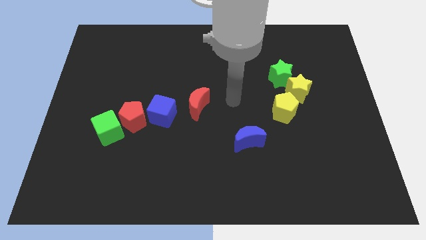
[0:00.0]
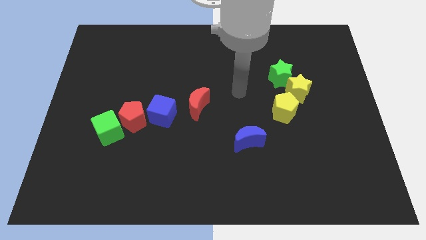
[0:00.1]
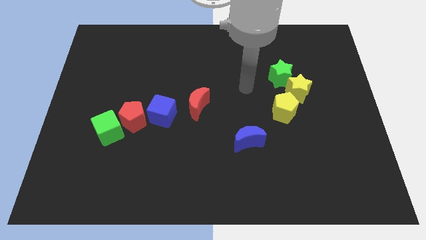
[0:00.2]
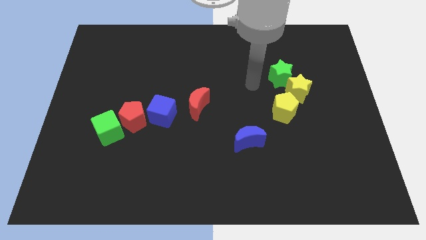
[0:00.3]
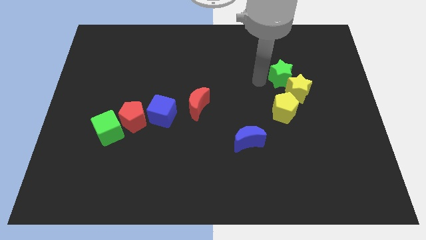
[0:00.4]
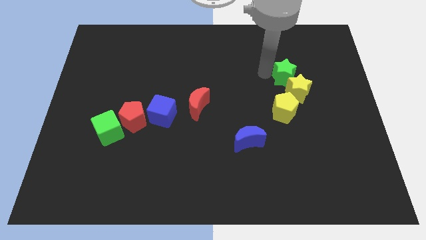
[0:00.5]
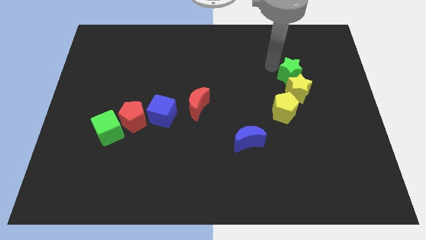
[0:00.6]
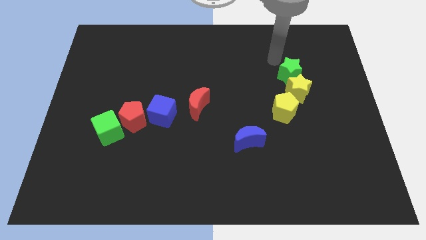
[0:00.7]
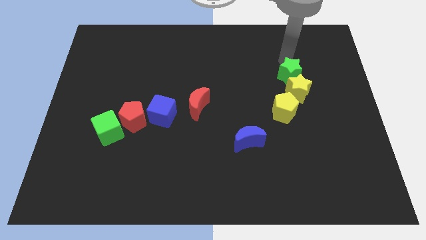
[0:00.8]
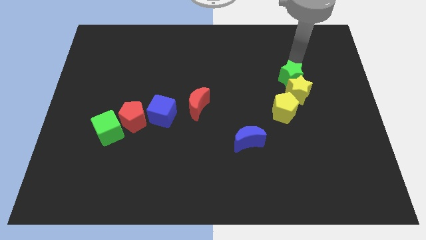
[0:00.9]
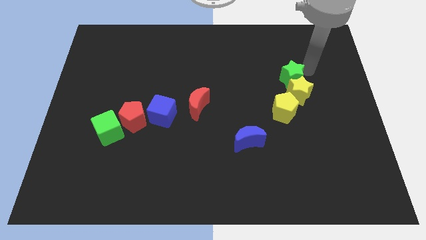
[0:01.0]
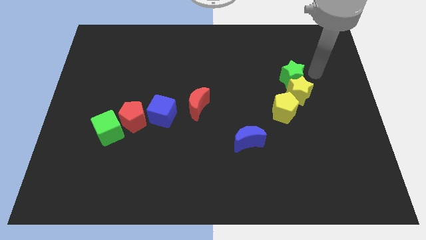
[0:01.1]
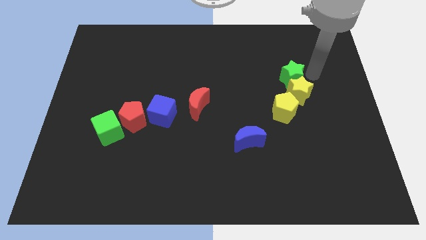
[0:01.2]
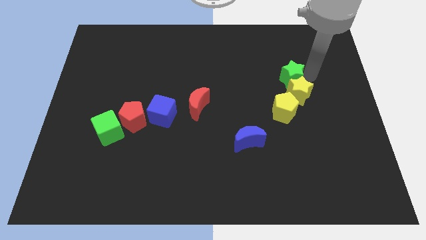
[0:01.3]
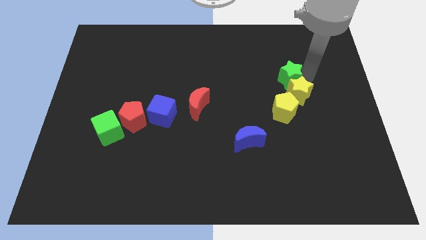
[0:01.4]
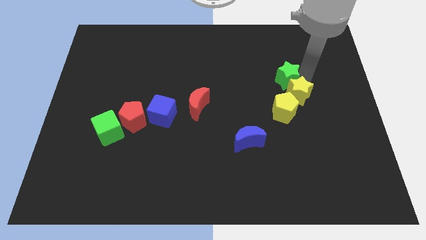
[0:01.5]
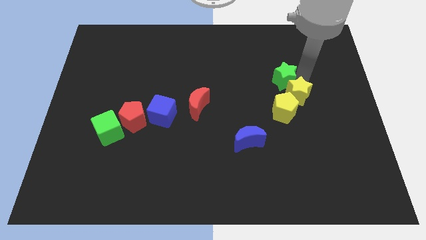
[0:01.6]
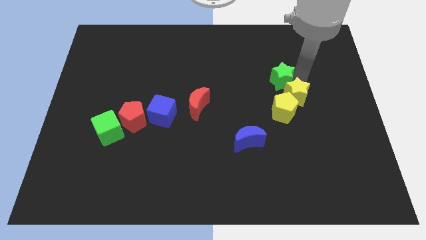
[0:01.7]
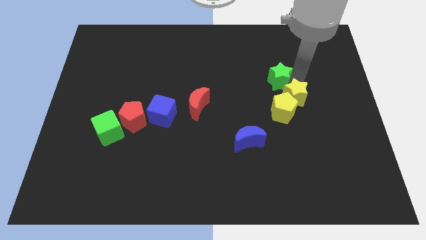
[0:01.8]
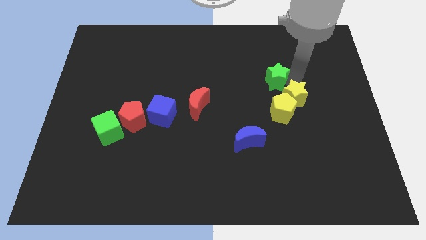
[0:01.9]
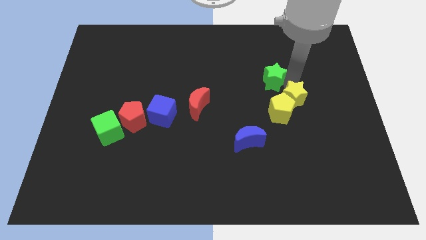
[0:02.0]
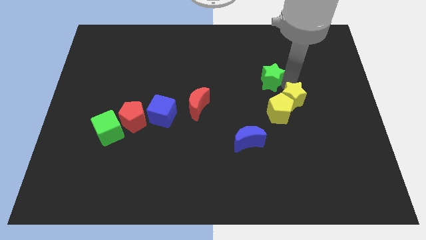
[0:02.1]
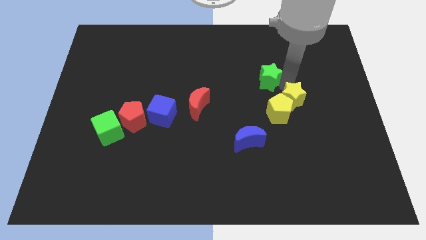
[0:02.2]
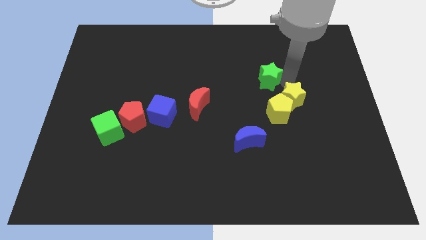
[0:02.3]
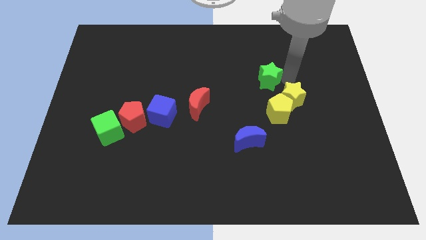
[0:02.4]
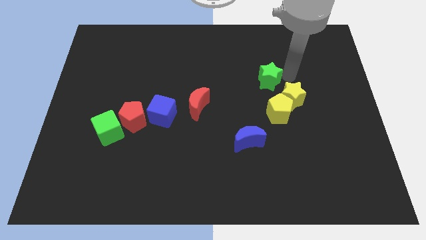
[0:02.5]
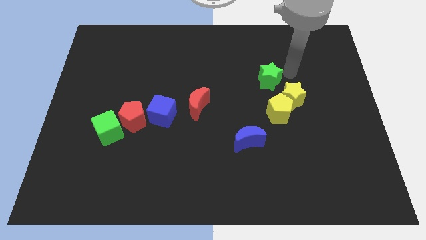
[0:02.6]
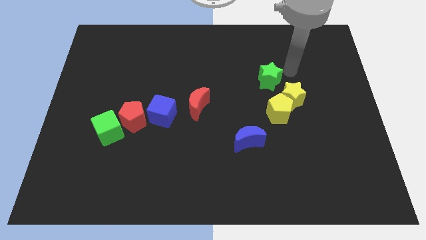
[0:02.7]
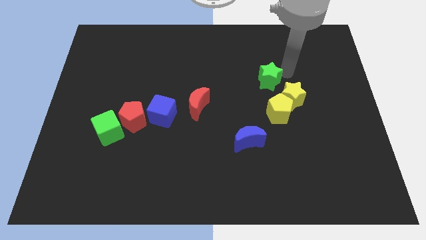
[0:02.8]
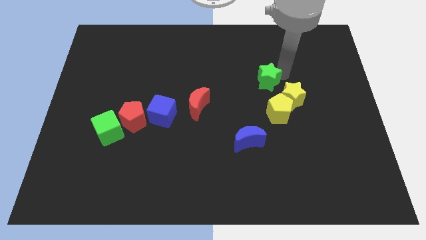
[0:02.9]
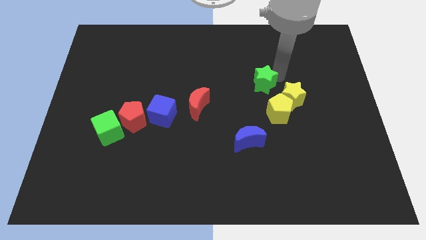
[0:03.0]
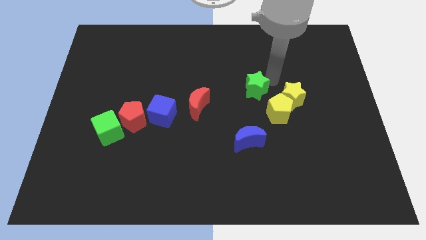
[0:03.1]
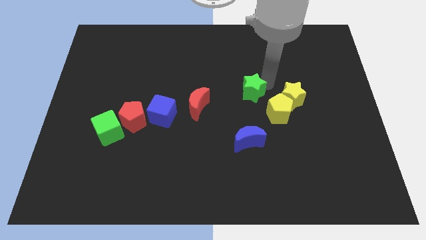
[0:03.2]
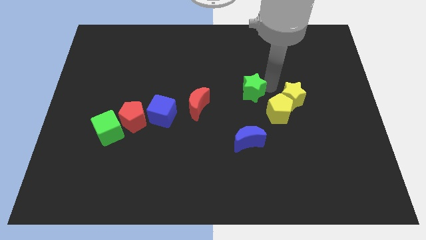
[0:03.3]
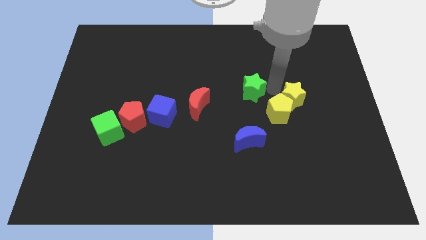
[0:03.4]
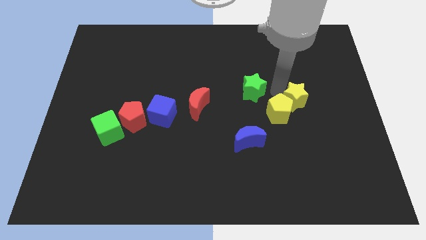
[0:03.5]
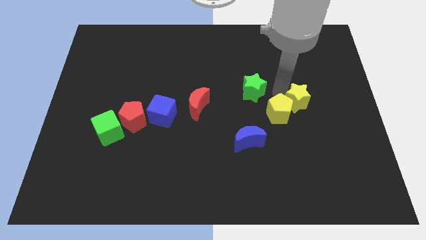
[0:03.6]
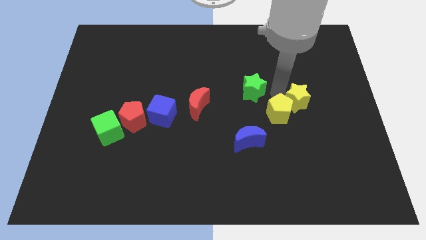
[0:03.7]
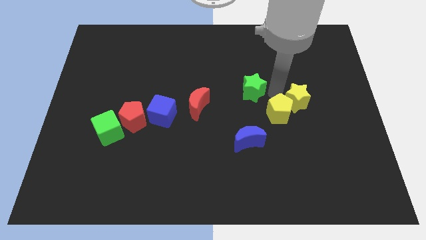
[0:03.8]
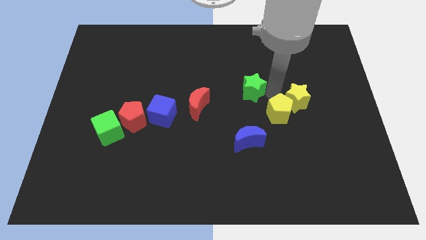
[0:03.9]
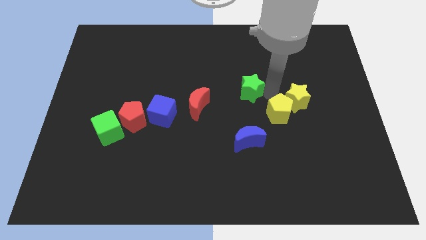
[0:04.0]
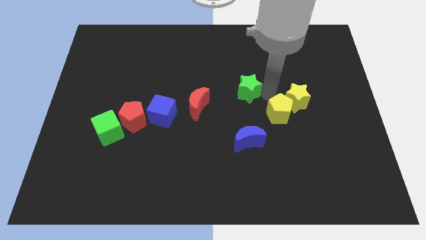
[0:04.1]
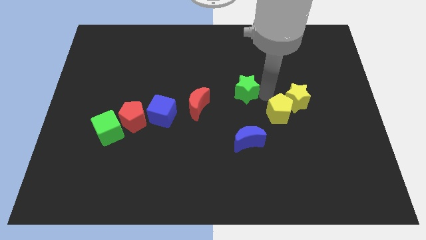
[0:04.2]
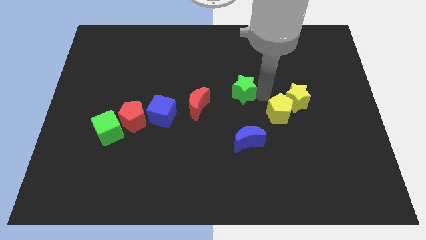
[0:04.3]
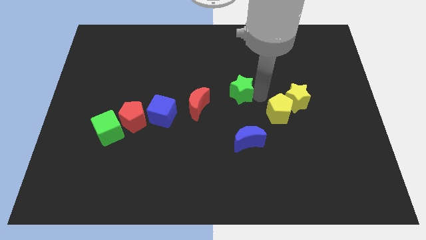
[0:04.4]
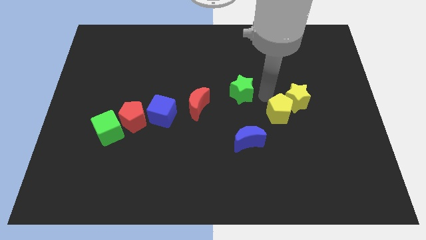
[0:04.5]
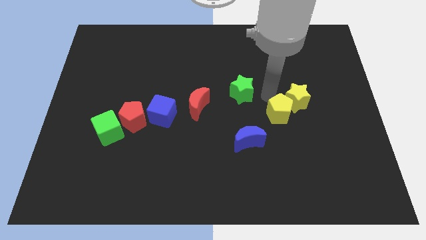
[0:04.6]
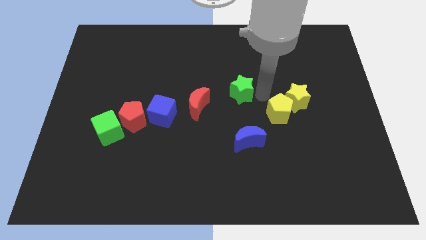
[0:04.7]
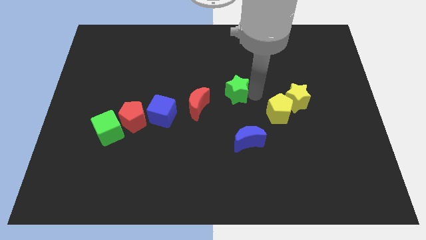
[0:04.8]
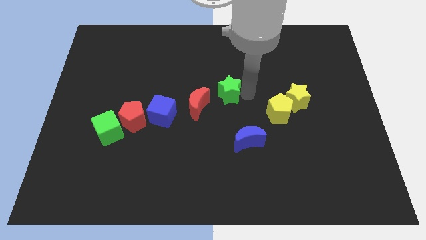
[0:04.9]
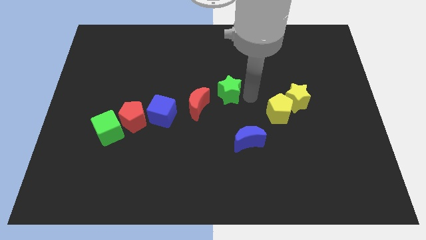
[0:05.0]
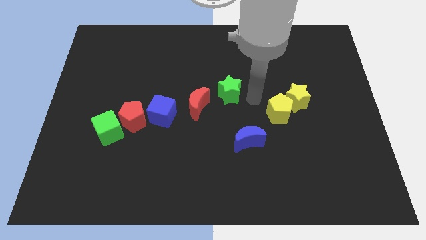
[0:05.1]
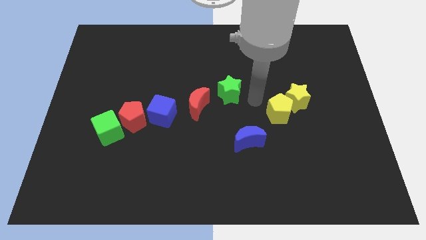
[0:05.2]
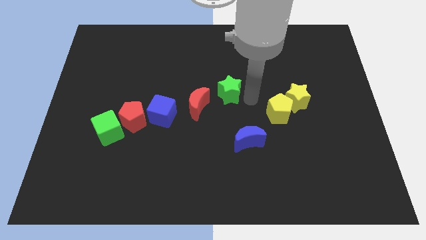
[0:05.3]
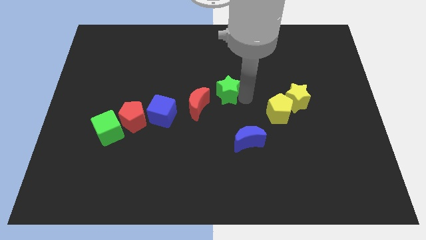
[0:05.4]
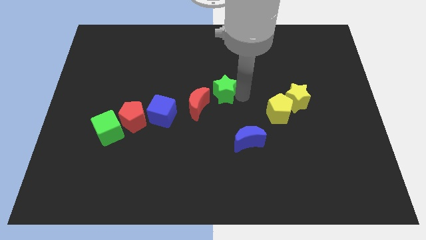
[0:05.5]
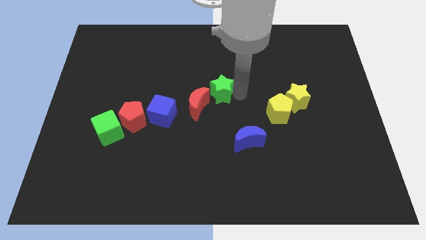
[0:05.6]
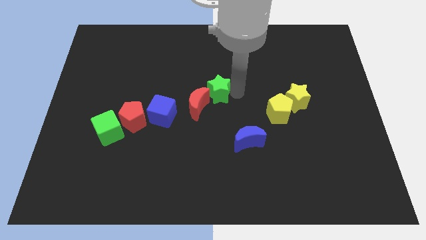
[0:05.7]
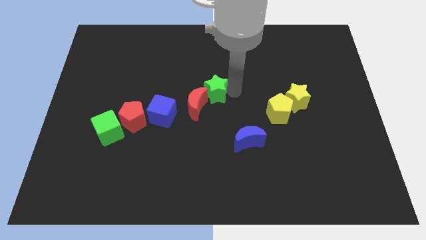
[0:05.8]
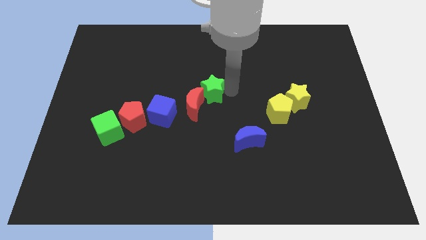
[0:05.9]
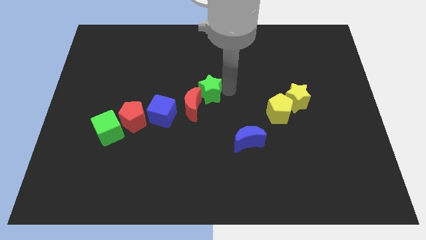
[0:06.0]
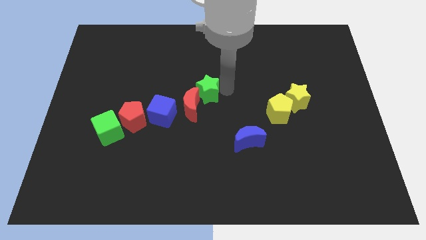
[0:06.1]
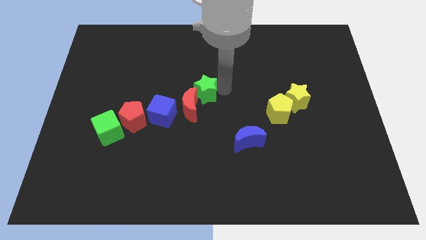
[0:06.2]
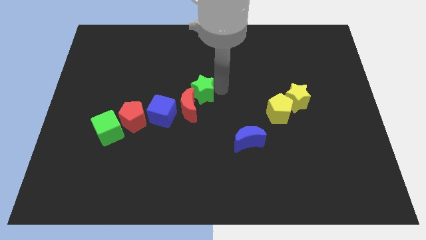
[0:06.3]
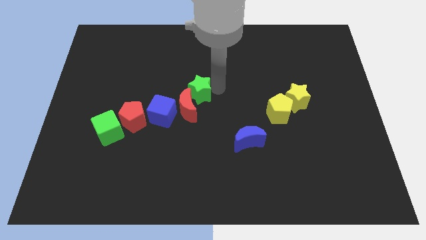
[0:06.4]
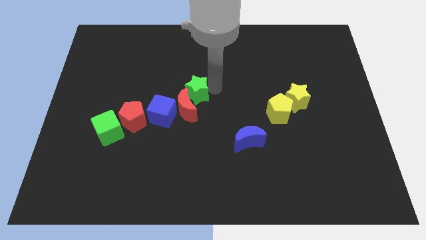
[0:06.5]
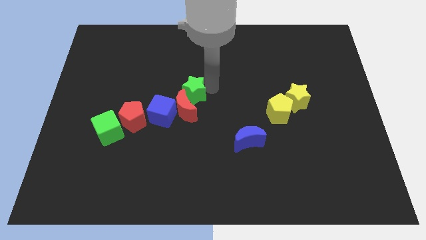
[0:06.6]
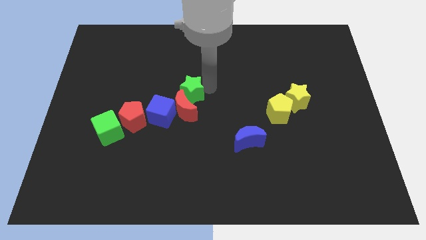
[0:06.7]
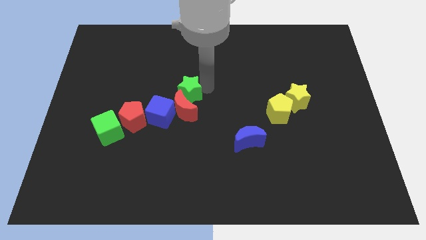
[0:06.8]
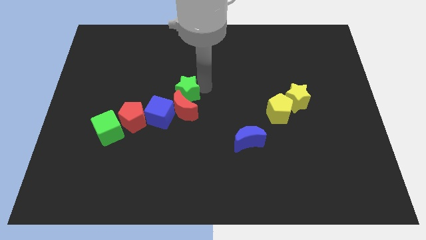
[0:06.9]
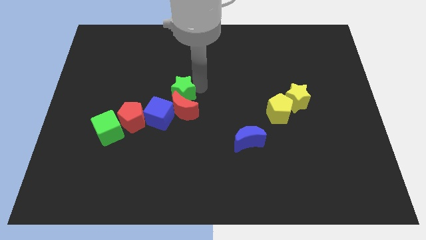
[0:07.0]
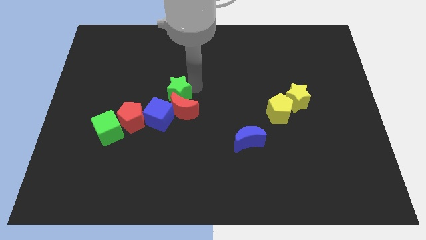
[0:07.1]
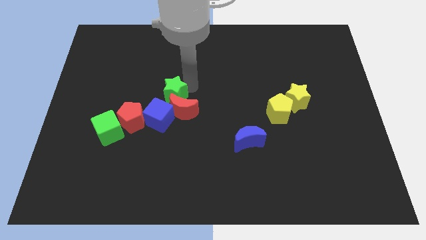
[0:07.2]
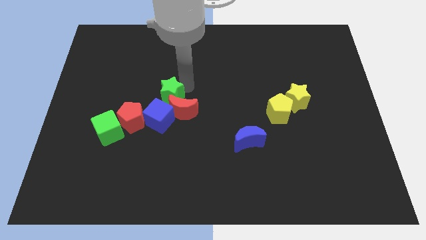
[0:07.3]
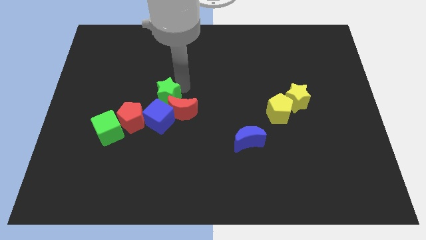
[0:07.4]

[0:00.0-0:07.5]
move the green star to the left side of the red moon

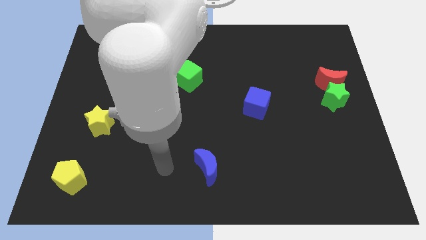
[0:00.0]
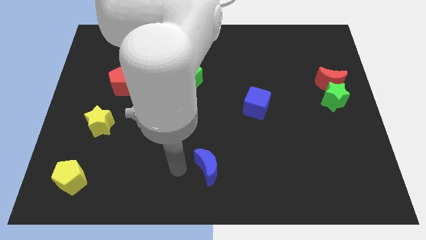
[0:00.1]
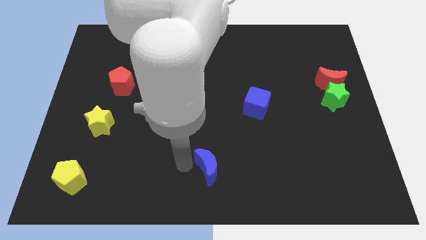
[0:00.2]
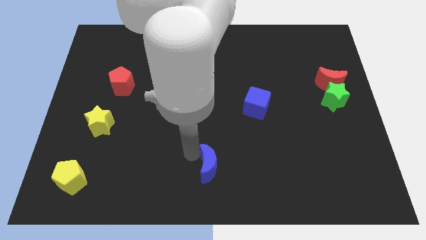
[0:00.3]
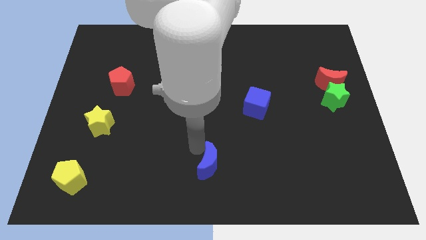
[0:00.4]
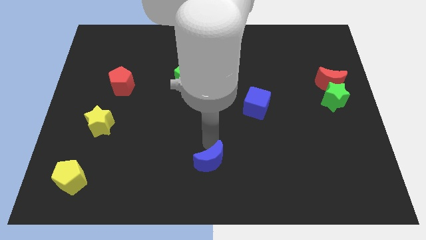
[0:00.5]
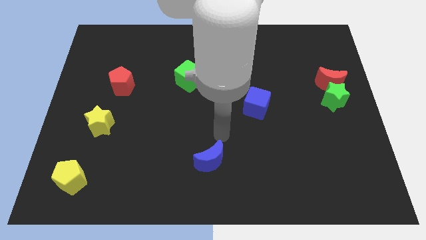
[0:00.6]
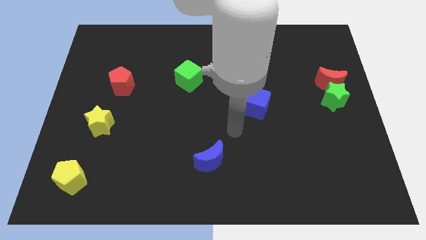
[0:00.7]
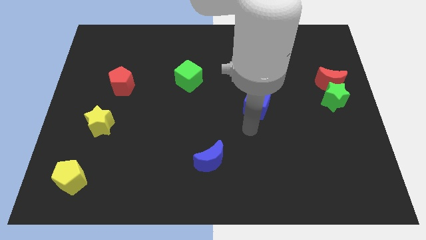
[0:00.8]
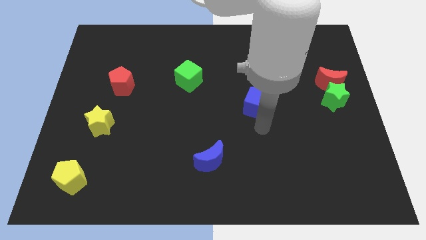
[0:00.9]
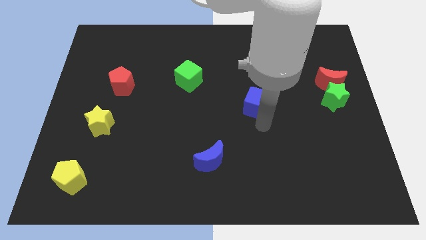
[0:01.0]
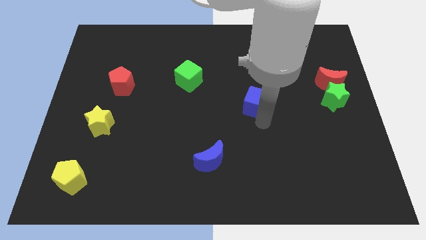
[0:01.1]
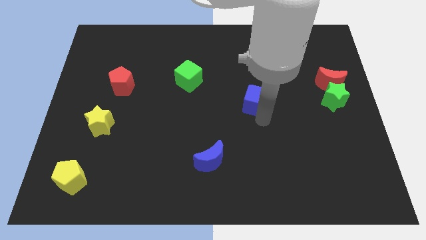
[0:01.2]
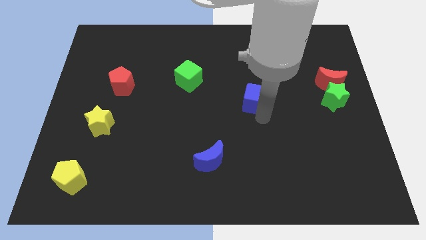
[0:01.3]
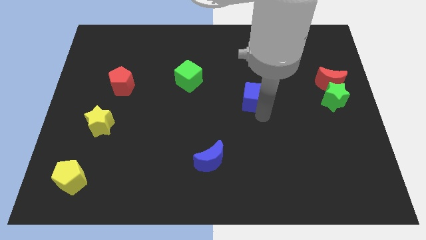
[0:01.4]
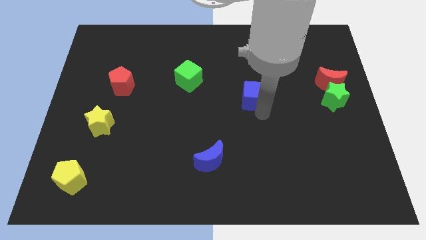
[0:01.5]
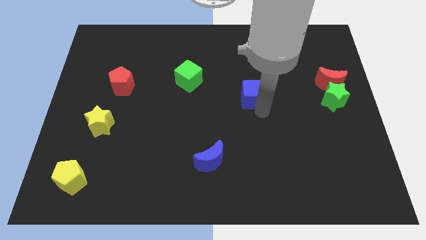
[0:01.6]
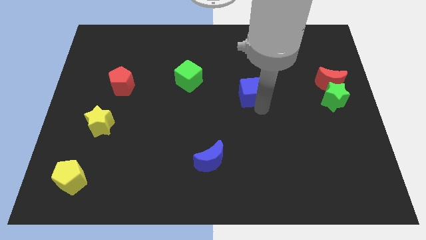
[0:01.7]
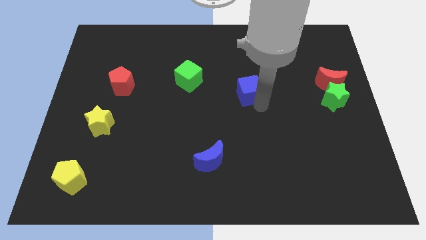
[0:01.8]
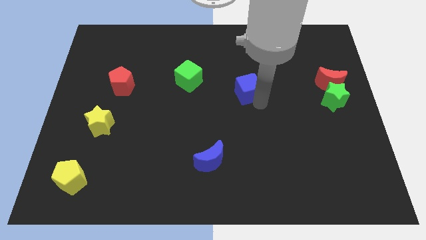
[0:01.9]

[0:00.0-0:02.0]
slide the blue cube to the right side of the green cube
